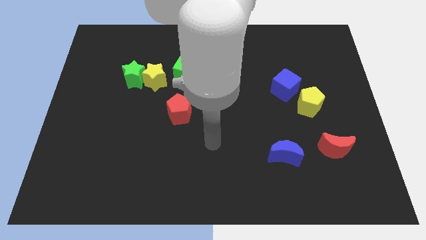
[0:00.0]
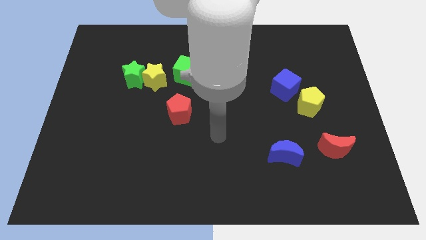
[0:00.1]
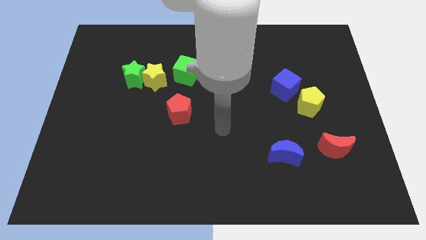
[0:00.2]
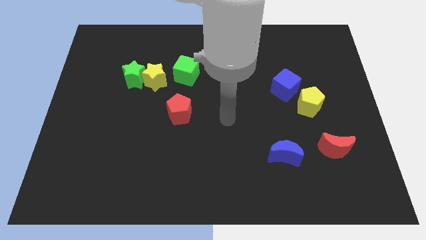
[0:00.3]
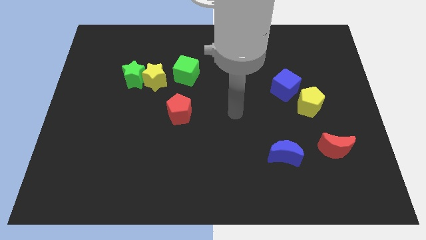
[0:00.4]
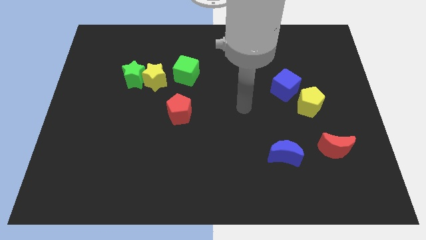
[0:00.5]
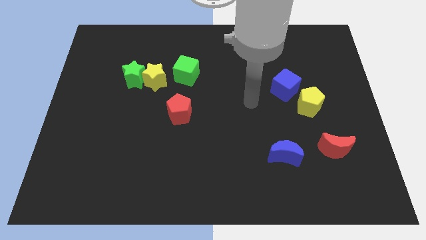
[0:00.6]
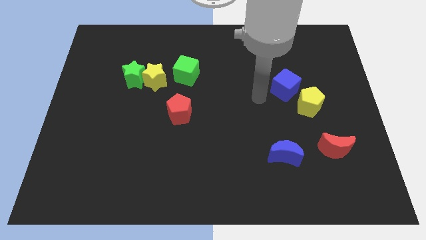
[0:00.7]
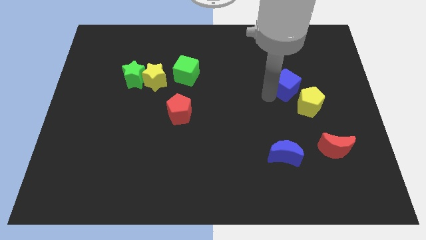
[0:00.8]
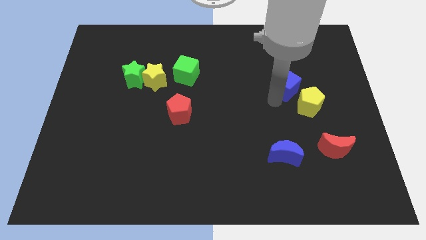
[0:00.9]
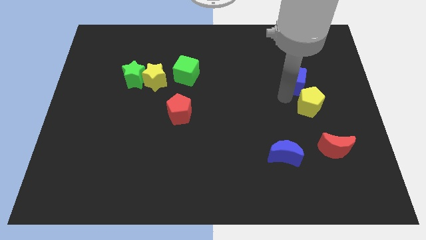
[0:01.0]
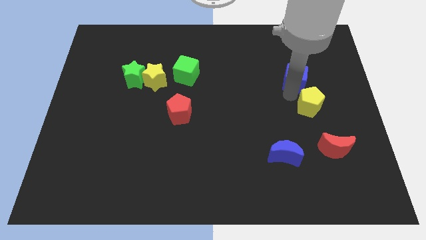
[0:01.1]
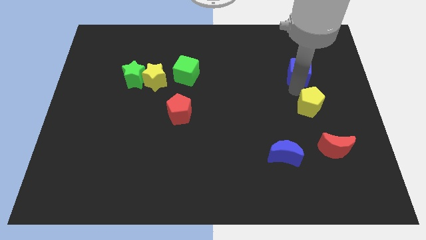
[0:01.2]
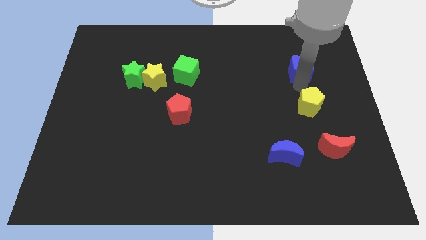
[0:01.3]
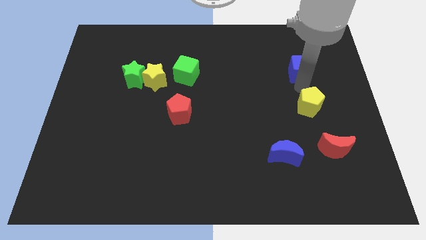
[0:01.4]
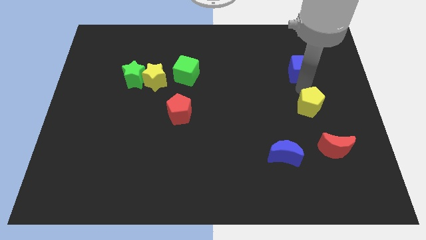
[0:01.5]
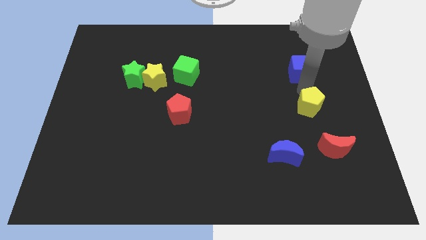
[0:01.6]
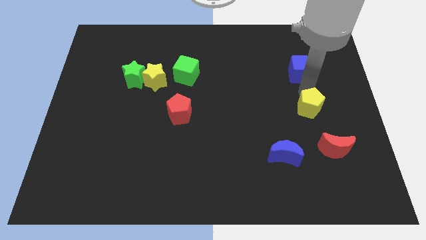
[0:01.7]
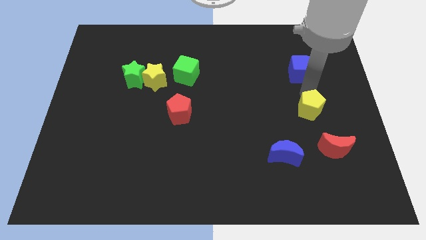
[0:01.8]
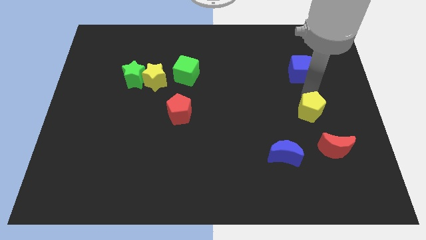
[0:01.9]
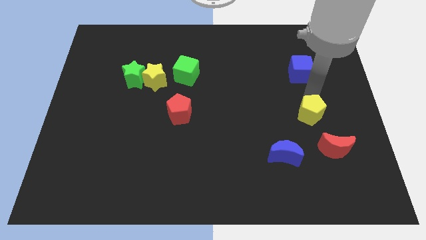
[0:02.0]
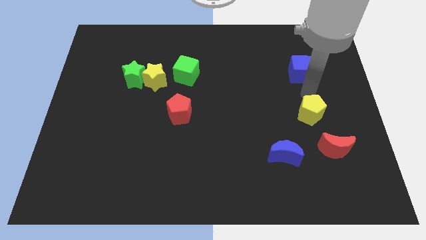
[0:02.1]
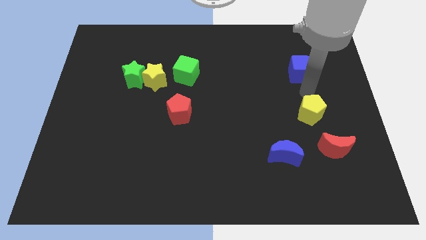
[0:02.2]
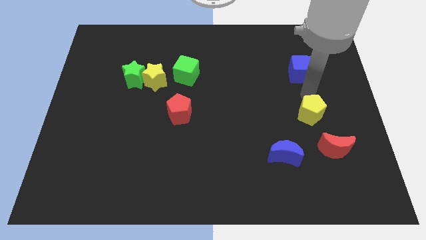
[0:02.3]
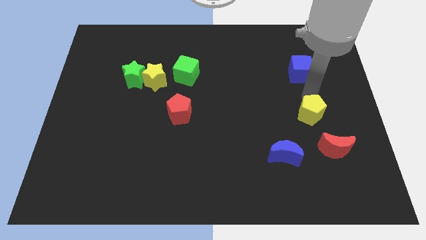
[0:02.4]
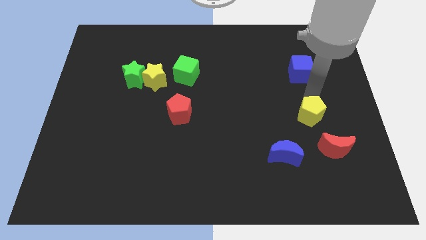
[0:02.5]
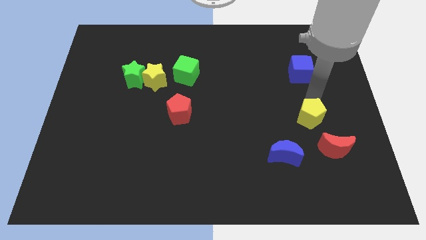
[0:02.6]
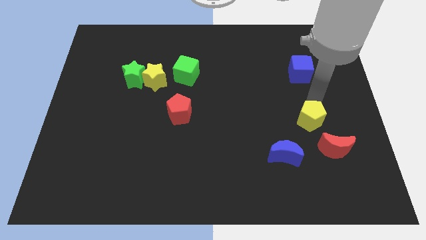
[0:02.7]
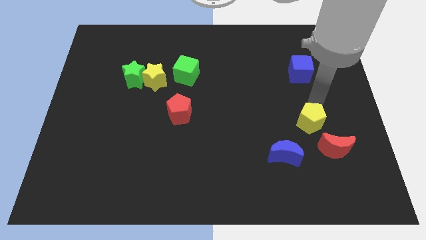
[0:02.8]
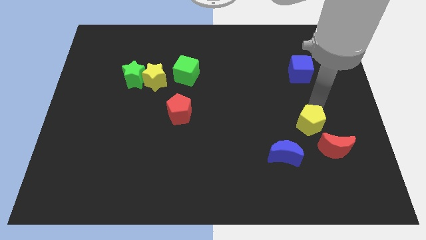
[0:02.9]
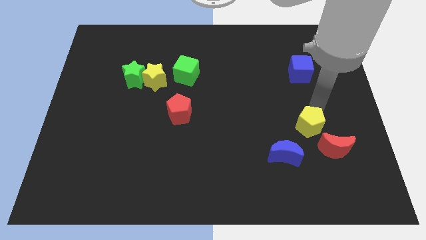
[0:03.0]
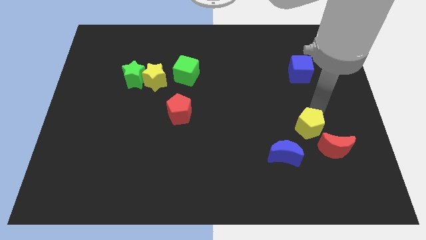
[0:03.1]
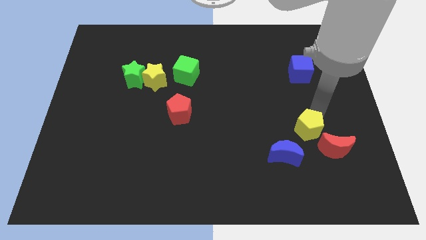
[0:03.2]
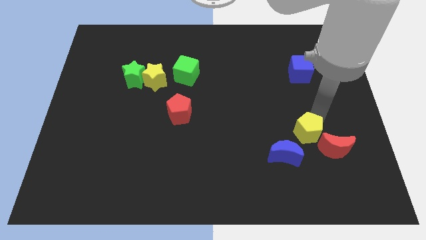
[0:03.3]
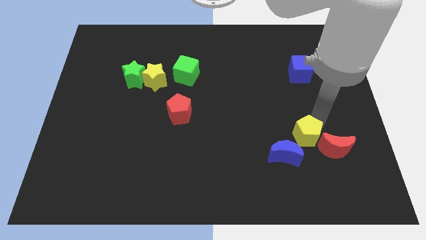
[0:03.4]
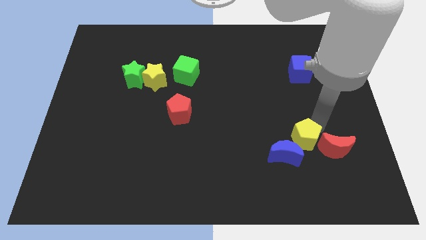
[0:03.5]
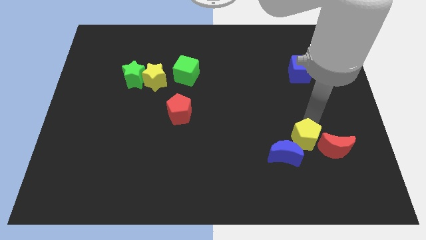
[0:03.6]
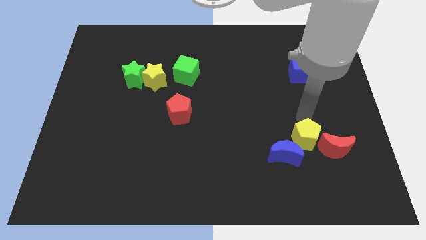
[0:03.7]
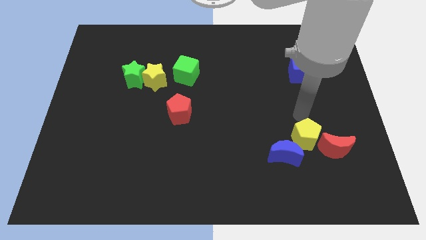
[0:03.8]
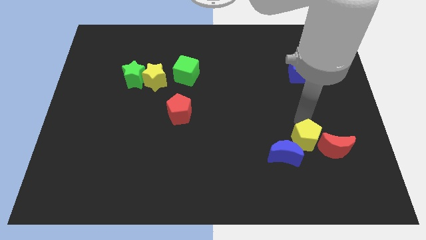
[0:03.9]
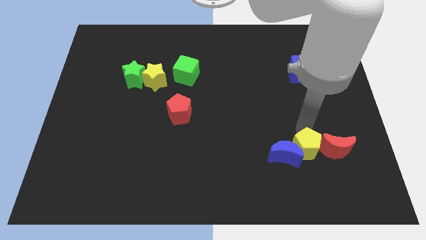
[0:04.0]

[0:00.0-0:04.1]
slide the yellow pentagon diagonally down and to the right of the blue moon

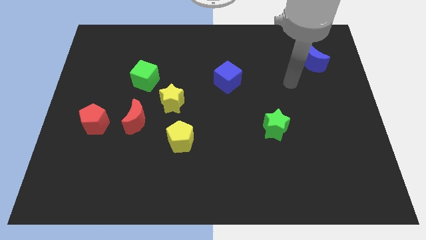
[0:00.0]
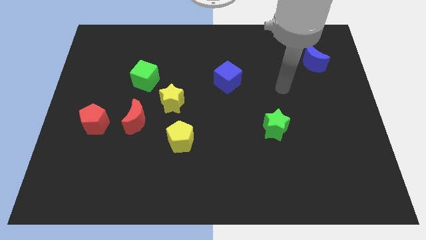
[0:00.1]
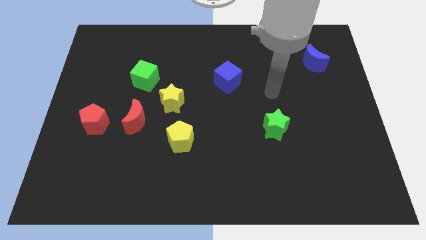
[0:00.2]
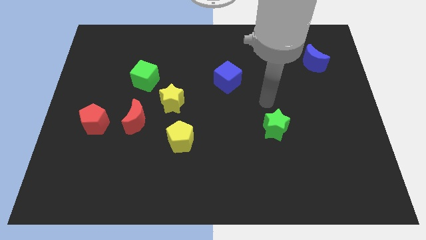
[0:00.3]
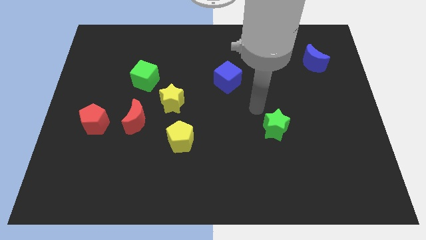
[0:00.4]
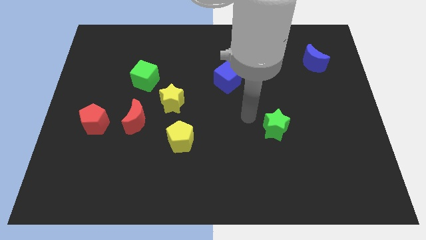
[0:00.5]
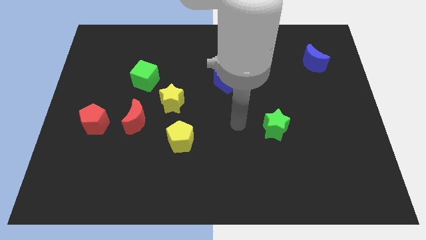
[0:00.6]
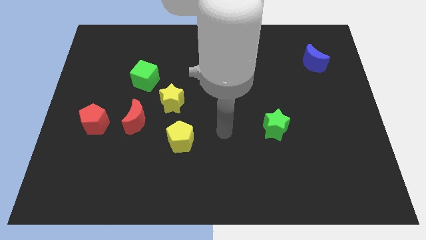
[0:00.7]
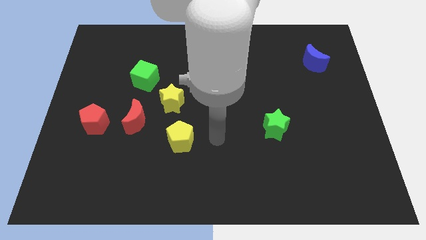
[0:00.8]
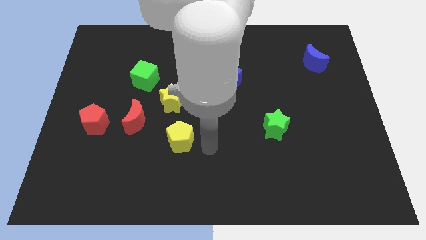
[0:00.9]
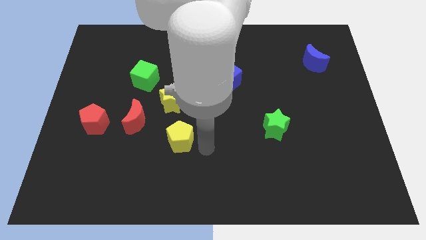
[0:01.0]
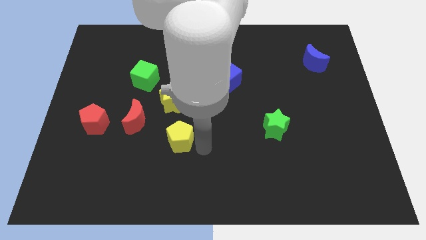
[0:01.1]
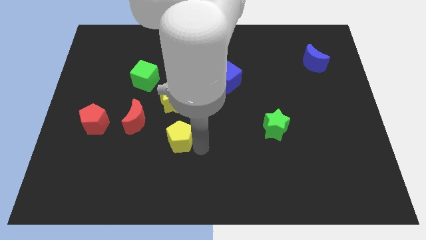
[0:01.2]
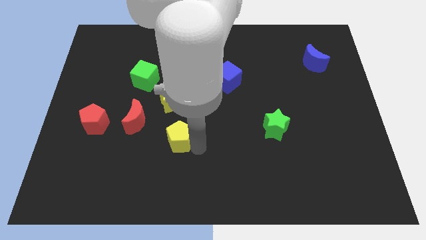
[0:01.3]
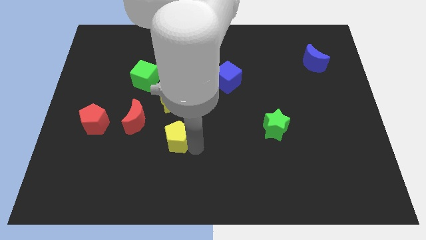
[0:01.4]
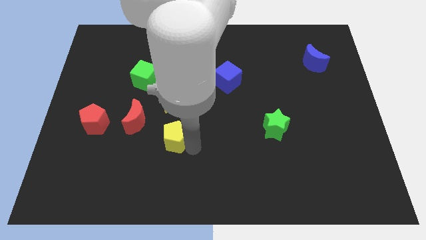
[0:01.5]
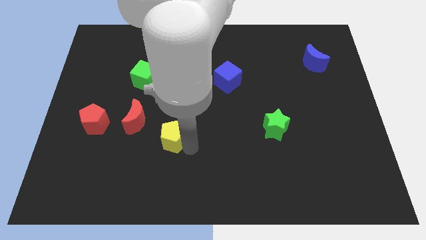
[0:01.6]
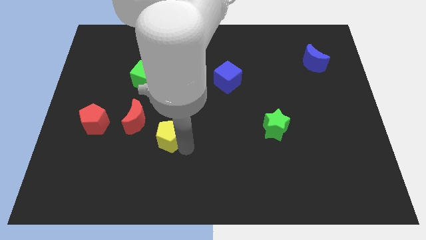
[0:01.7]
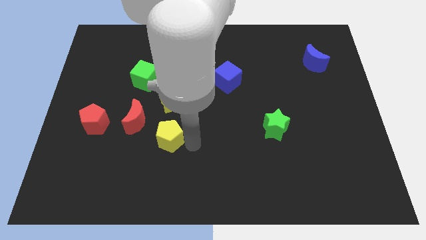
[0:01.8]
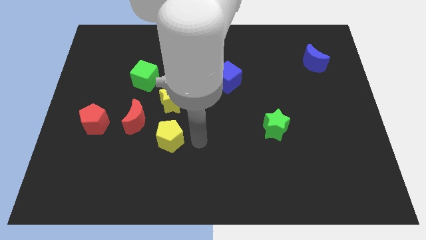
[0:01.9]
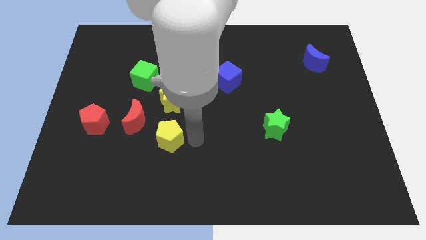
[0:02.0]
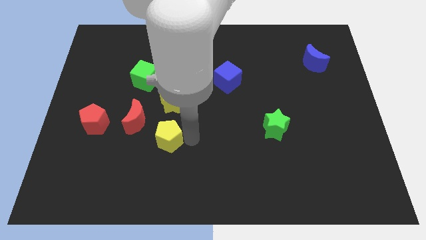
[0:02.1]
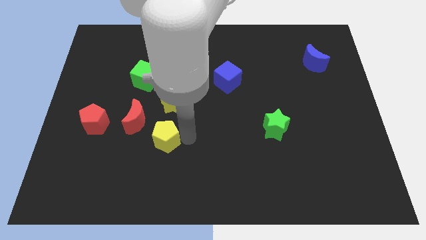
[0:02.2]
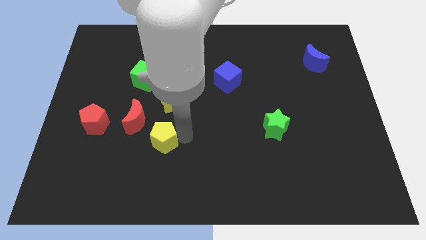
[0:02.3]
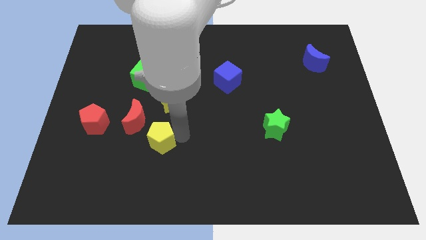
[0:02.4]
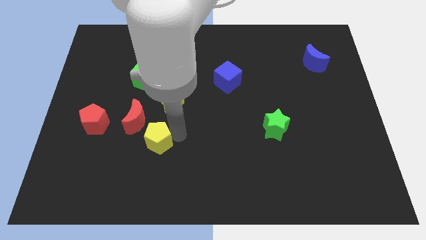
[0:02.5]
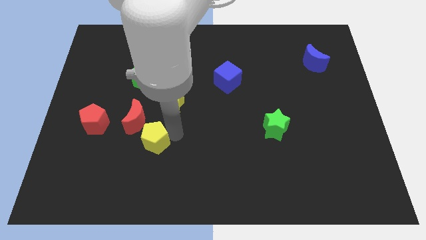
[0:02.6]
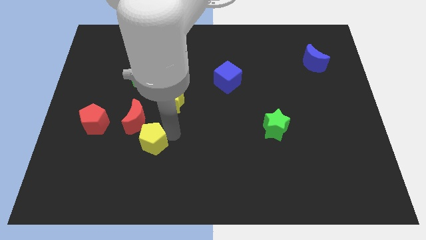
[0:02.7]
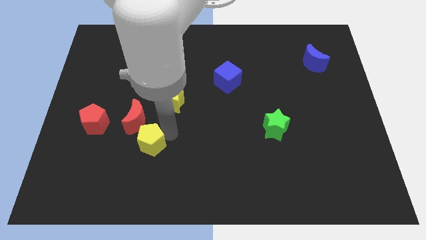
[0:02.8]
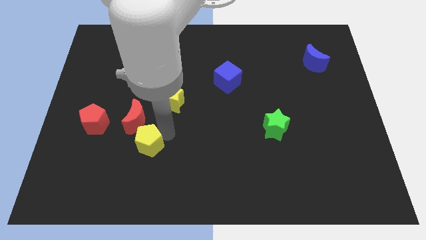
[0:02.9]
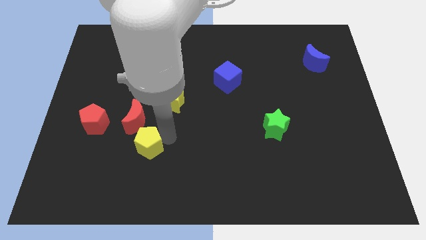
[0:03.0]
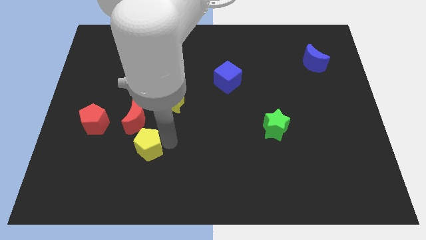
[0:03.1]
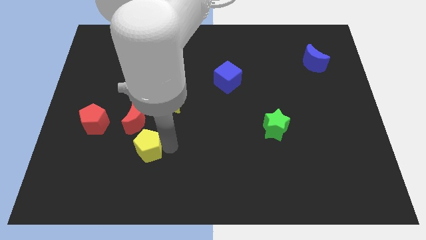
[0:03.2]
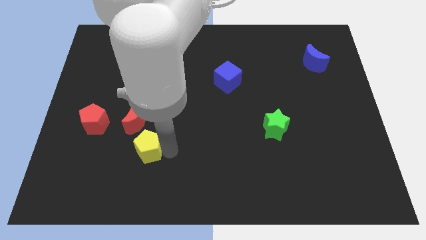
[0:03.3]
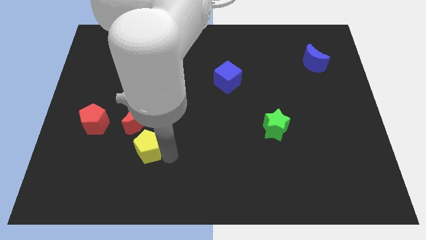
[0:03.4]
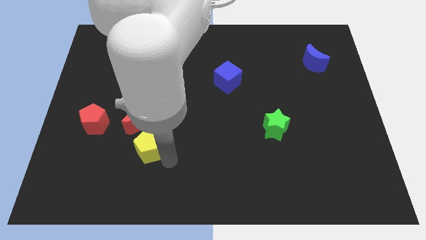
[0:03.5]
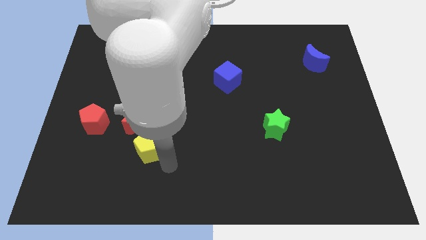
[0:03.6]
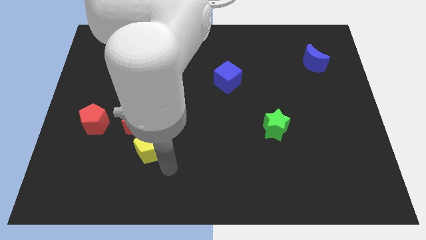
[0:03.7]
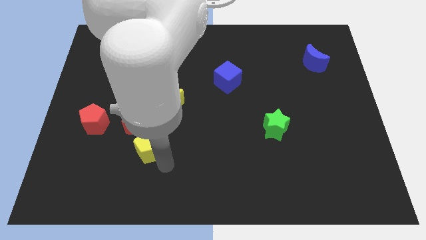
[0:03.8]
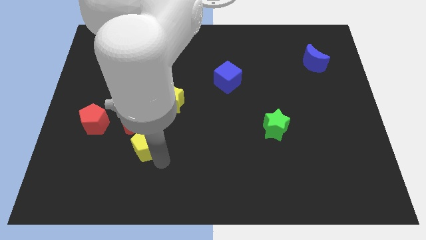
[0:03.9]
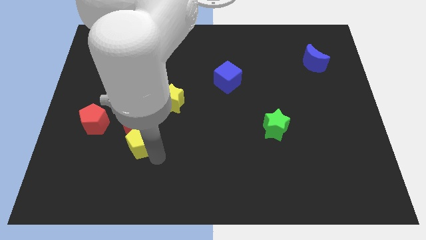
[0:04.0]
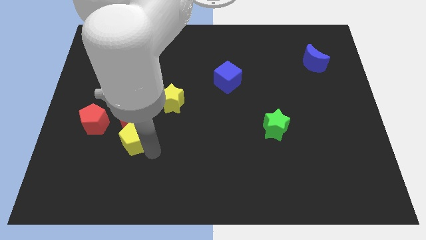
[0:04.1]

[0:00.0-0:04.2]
push the yellow pentagon to the bottom left side of the red moon

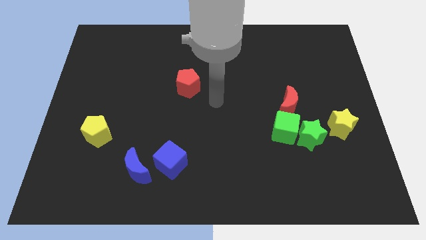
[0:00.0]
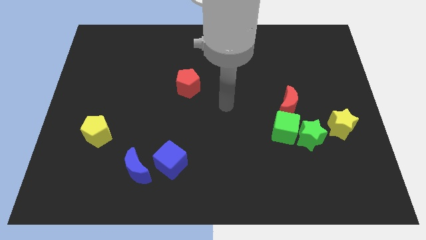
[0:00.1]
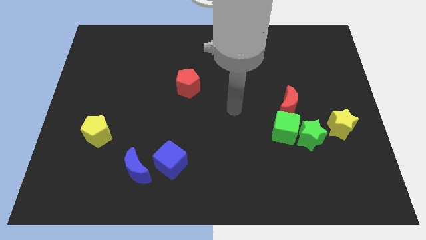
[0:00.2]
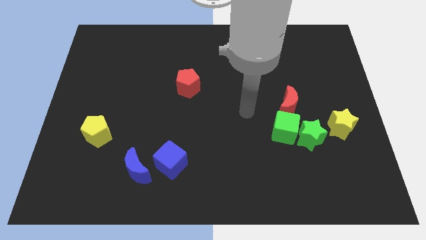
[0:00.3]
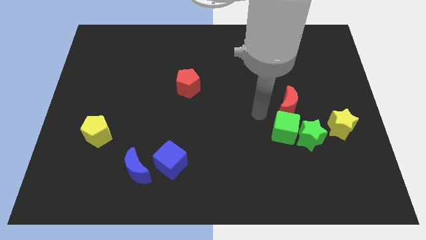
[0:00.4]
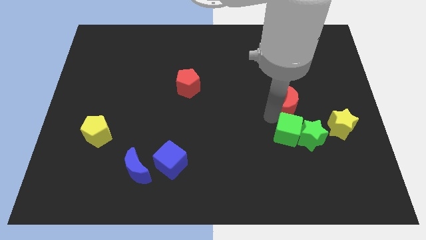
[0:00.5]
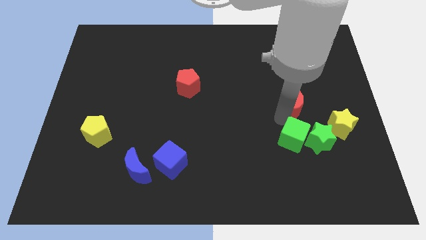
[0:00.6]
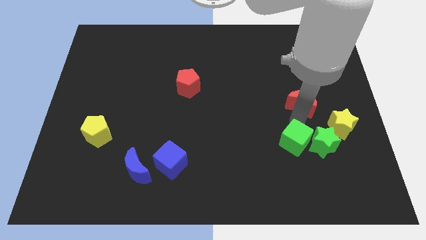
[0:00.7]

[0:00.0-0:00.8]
push the green star to the bottom of the yellow star
